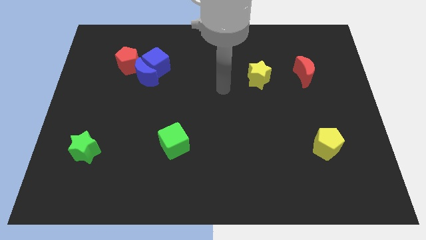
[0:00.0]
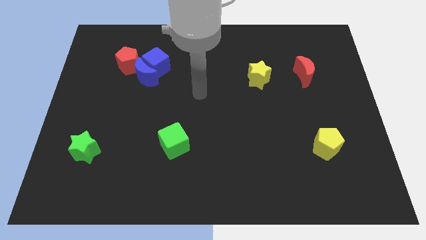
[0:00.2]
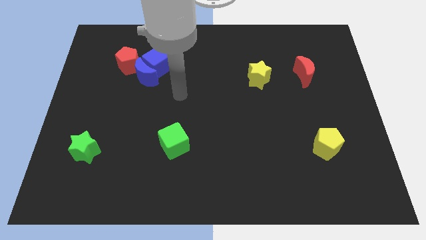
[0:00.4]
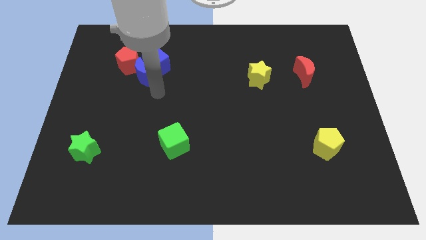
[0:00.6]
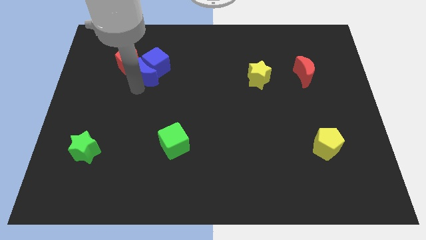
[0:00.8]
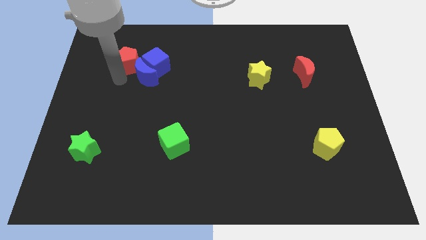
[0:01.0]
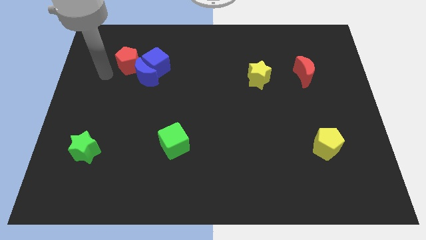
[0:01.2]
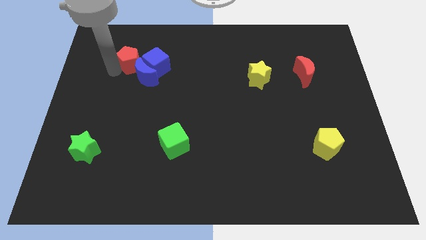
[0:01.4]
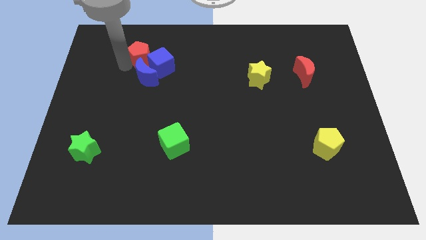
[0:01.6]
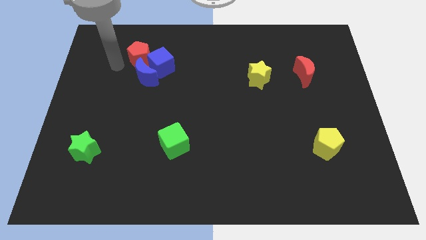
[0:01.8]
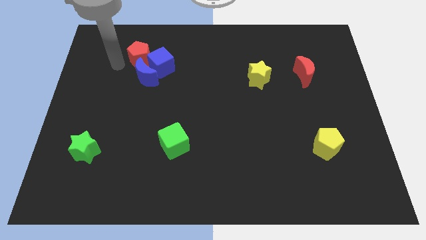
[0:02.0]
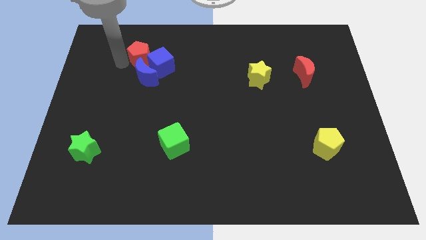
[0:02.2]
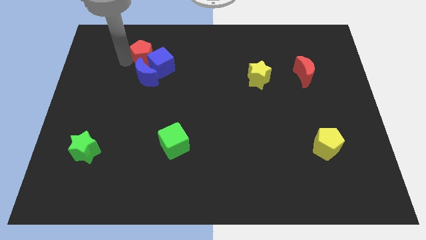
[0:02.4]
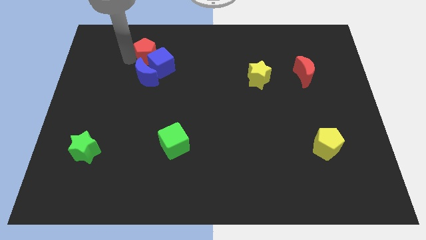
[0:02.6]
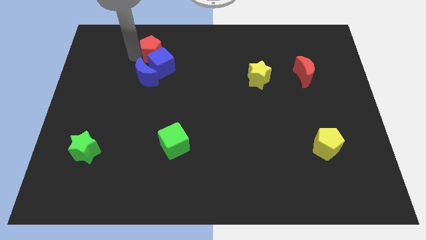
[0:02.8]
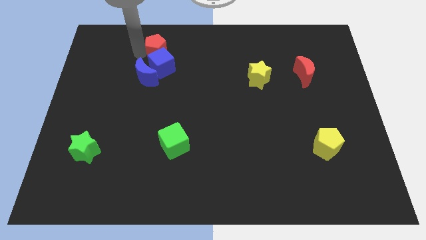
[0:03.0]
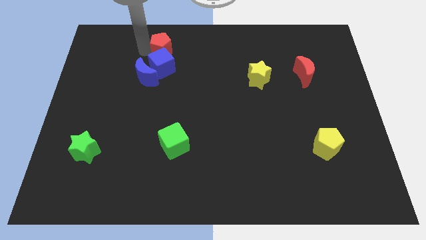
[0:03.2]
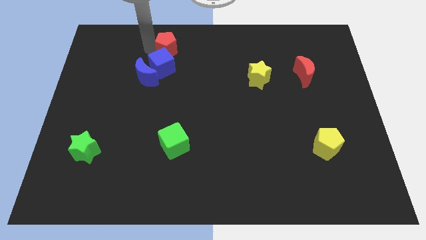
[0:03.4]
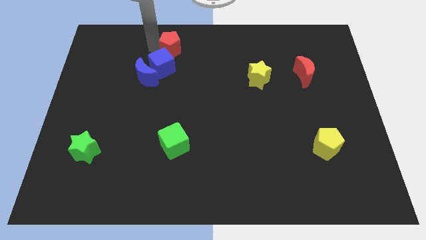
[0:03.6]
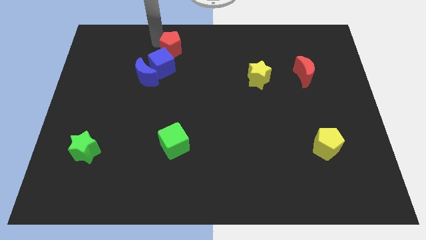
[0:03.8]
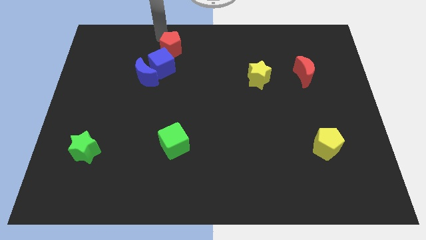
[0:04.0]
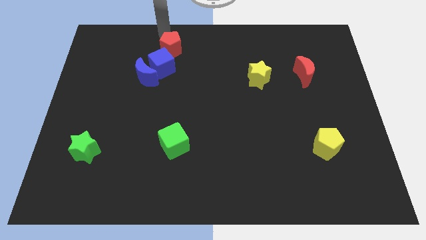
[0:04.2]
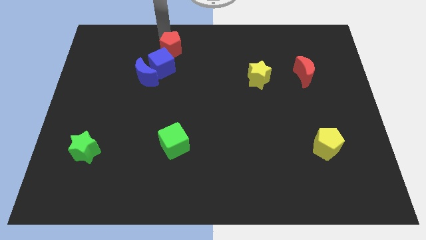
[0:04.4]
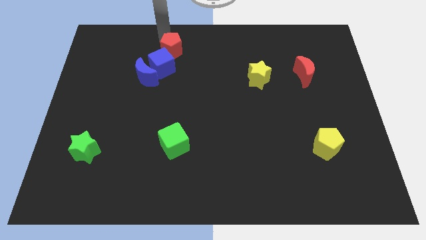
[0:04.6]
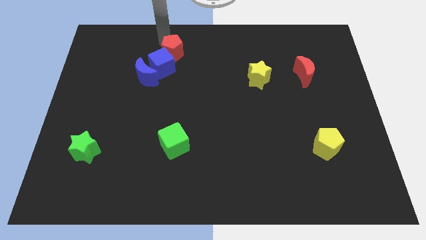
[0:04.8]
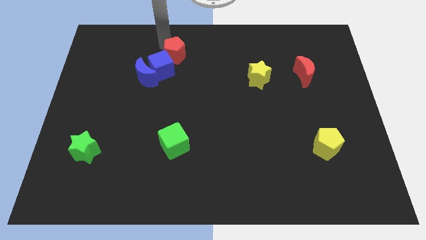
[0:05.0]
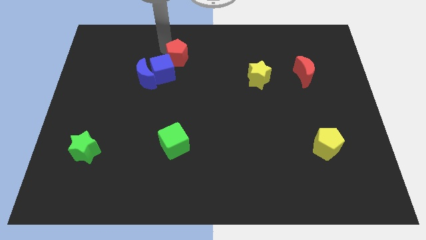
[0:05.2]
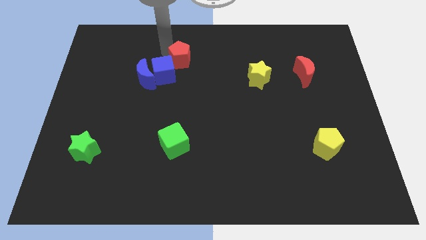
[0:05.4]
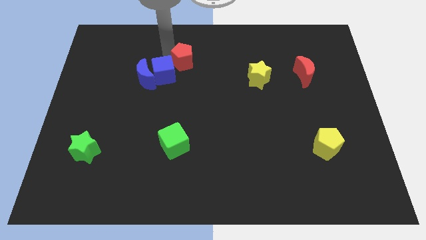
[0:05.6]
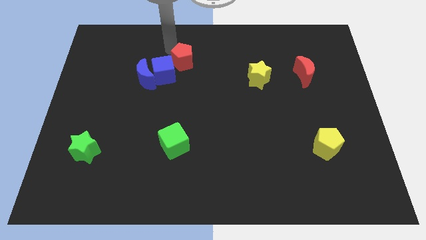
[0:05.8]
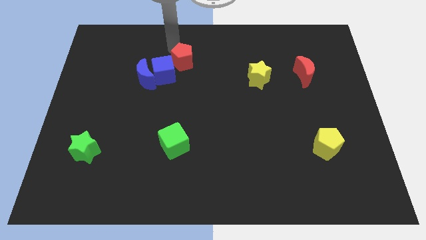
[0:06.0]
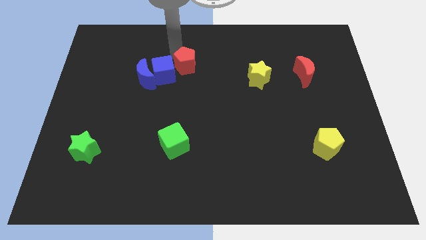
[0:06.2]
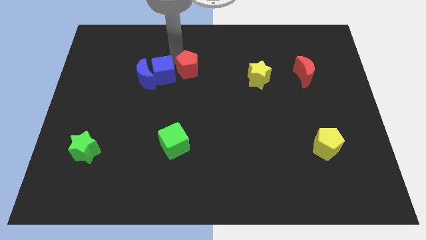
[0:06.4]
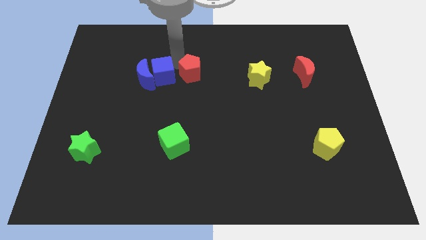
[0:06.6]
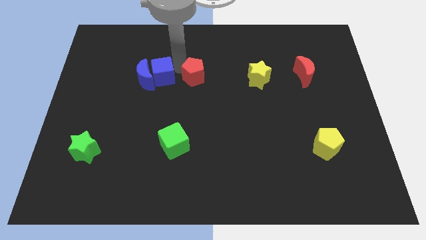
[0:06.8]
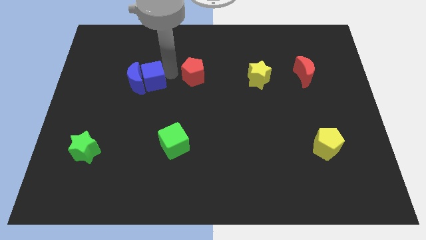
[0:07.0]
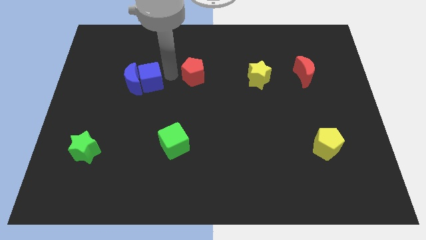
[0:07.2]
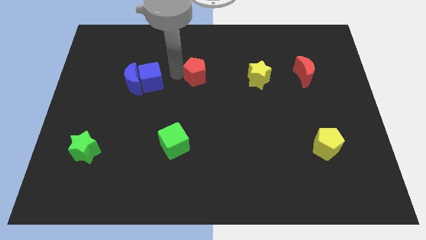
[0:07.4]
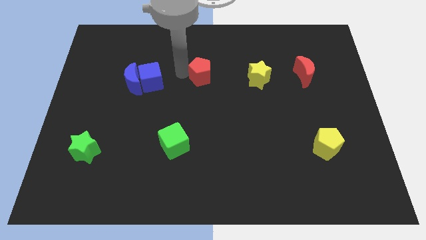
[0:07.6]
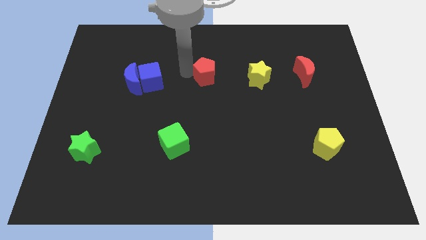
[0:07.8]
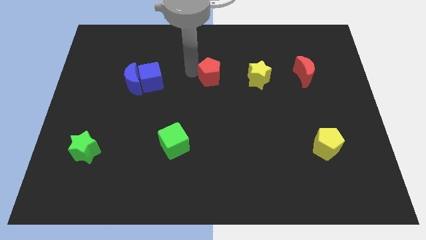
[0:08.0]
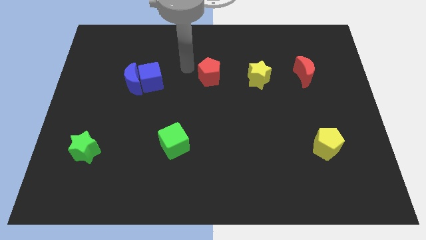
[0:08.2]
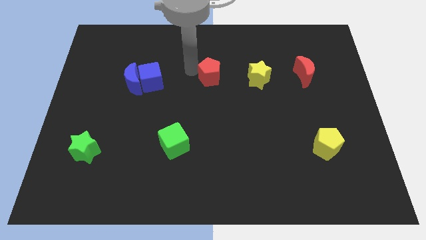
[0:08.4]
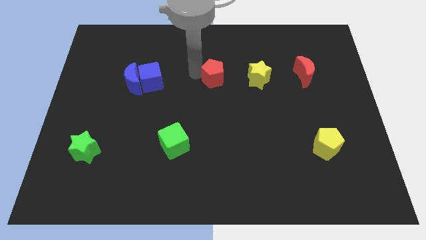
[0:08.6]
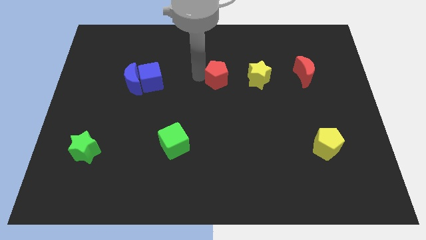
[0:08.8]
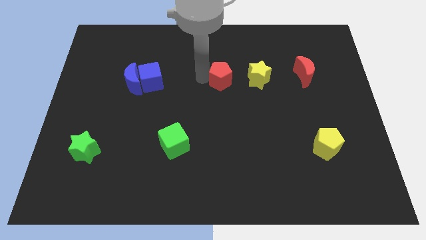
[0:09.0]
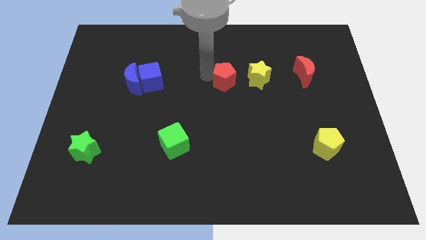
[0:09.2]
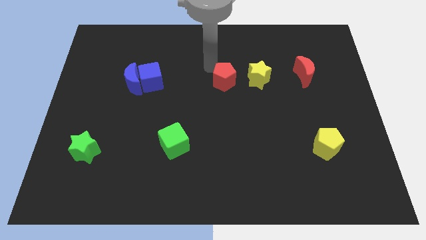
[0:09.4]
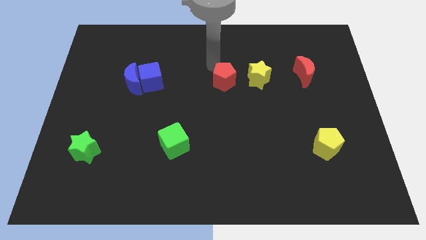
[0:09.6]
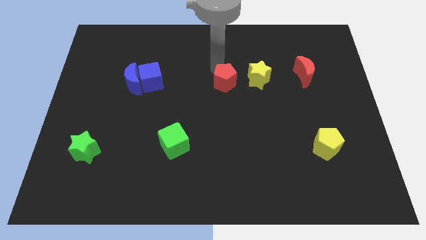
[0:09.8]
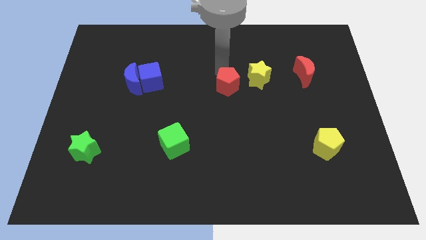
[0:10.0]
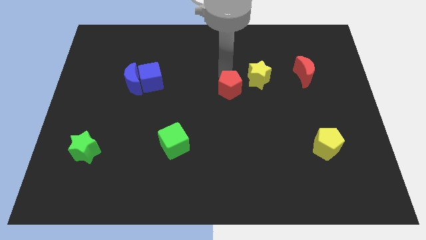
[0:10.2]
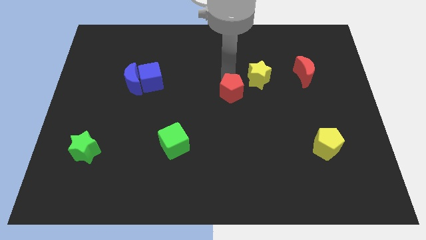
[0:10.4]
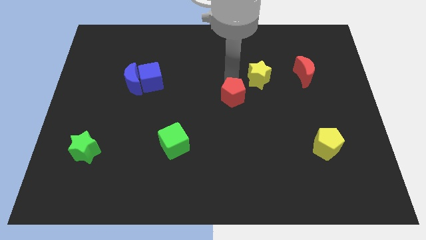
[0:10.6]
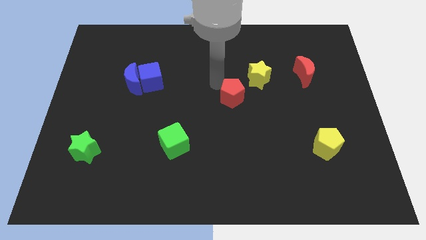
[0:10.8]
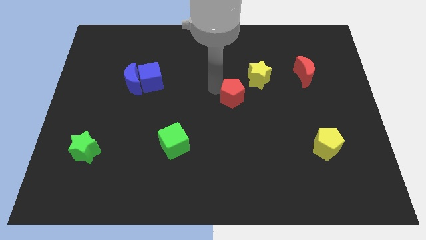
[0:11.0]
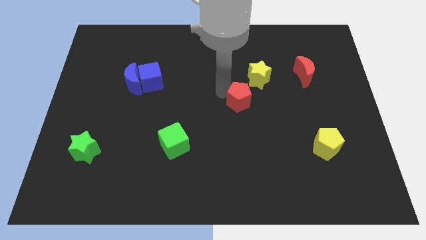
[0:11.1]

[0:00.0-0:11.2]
move the red pentagon below the yellow star
